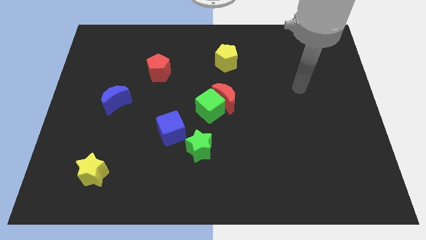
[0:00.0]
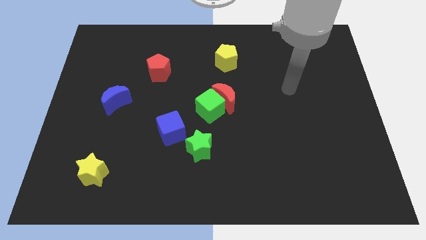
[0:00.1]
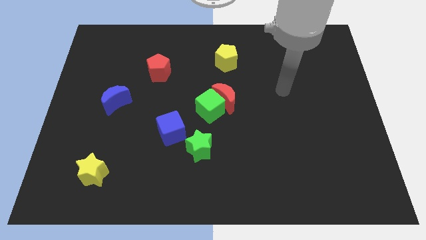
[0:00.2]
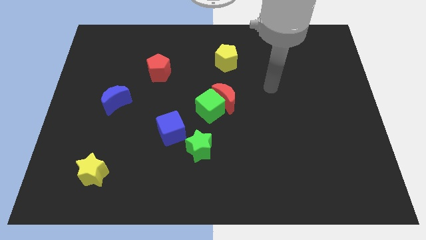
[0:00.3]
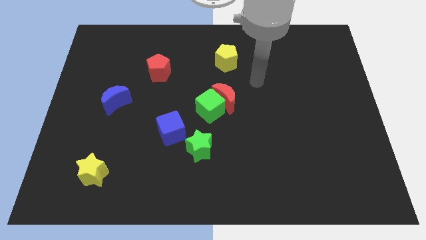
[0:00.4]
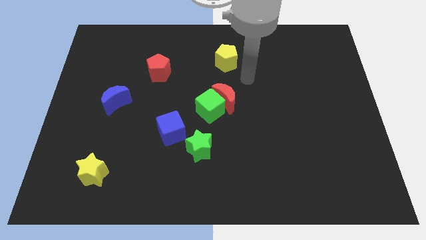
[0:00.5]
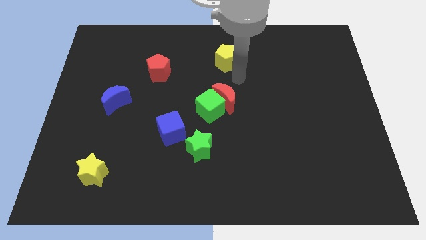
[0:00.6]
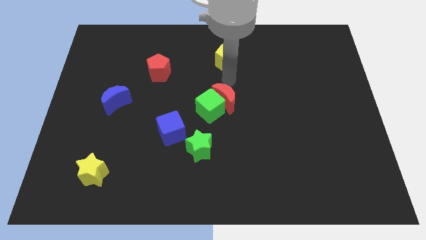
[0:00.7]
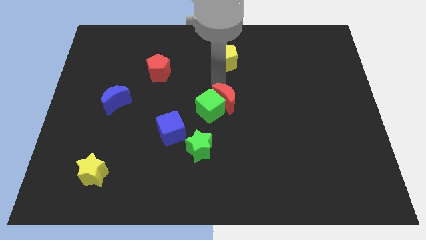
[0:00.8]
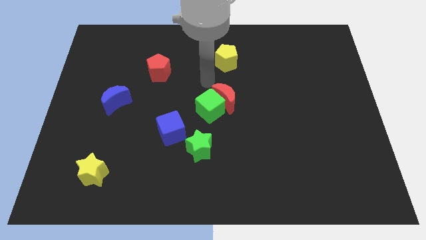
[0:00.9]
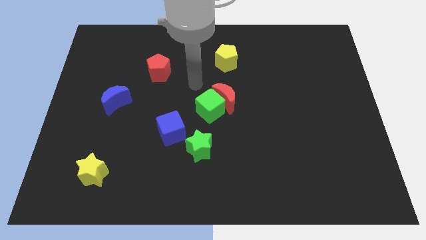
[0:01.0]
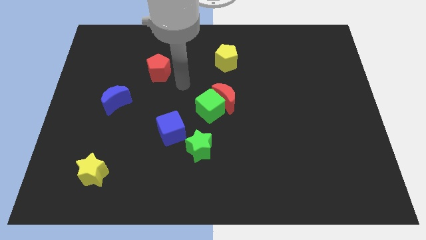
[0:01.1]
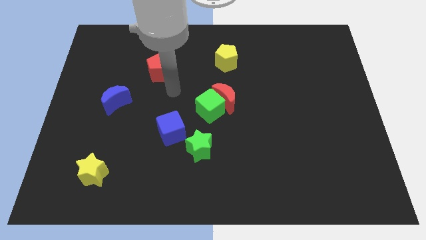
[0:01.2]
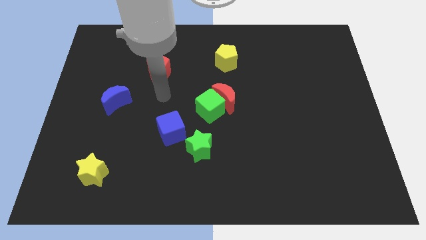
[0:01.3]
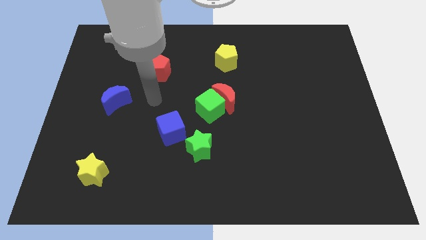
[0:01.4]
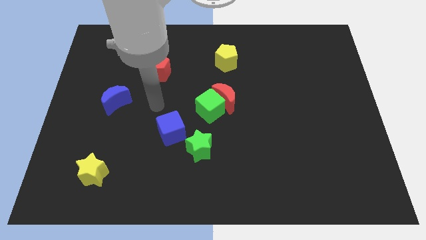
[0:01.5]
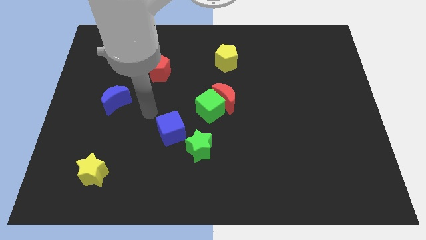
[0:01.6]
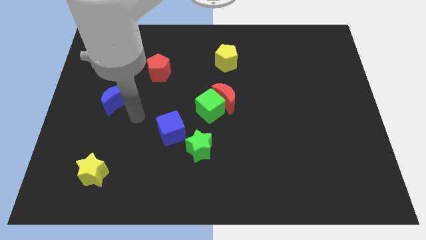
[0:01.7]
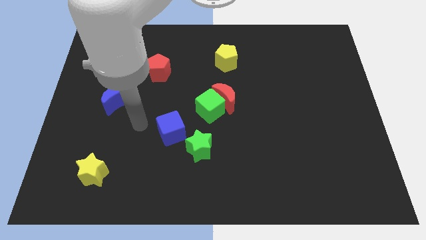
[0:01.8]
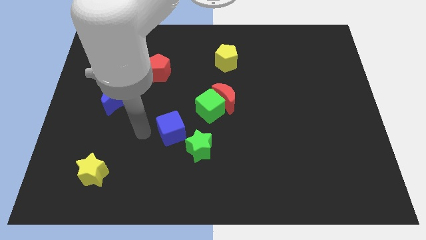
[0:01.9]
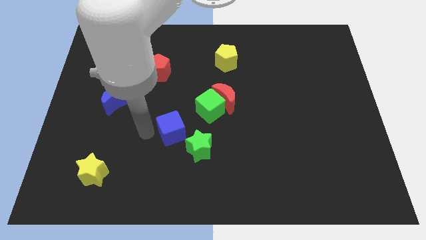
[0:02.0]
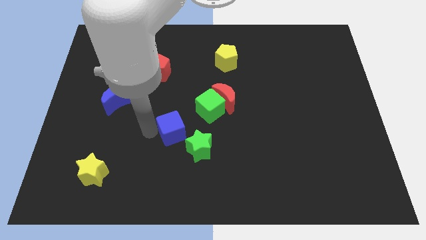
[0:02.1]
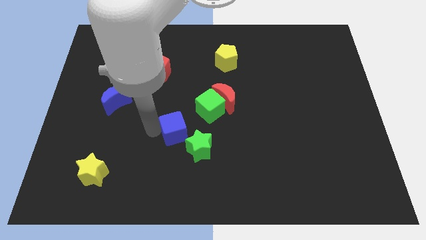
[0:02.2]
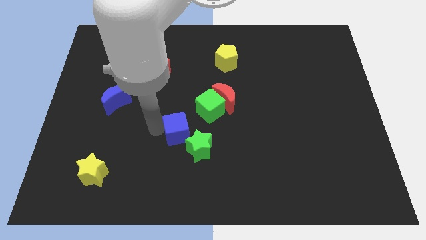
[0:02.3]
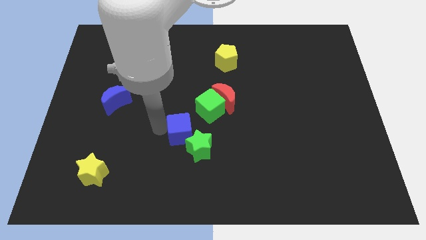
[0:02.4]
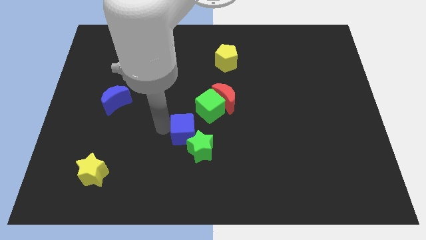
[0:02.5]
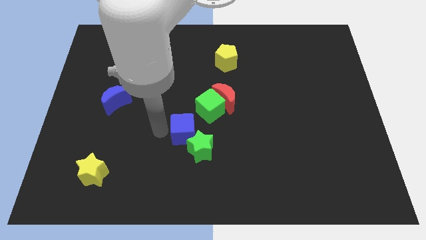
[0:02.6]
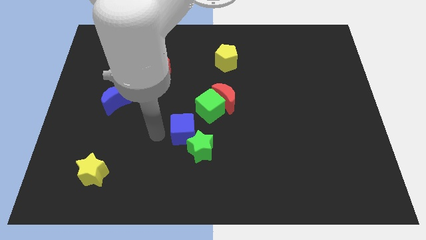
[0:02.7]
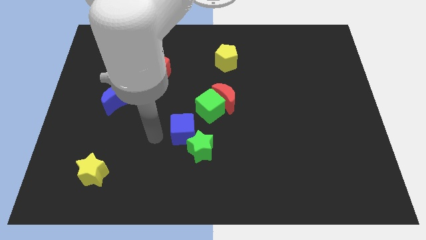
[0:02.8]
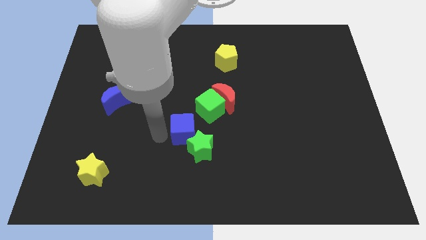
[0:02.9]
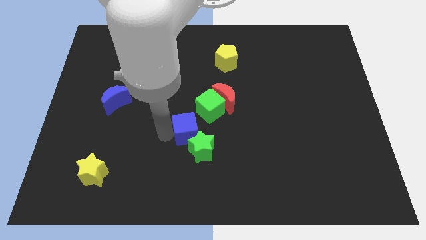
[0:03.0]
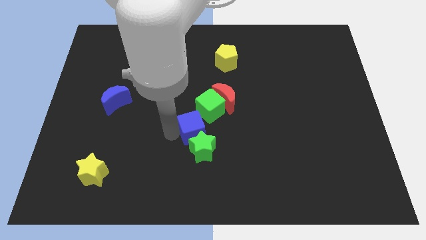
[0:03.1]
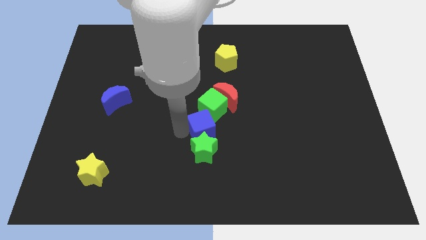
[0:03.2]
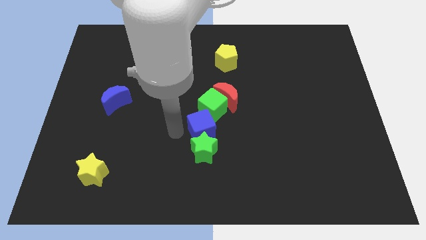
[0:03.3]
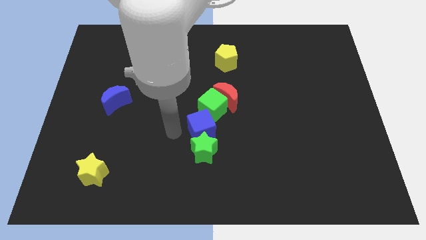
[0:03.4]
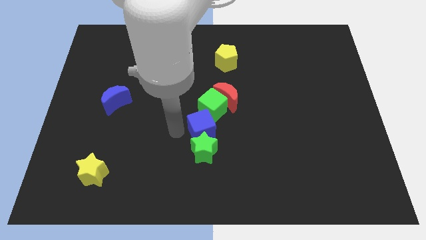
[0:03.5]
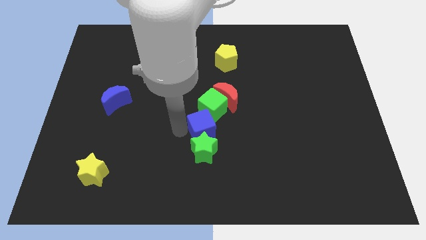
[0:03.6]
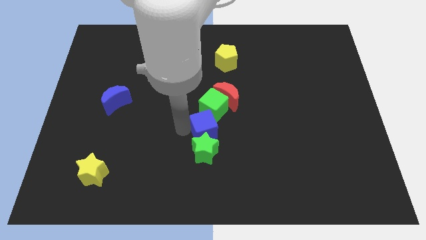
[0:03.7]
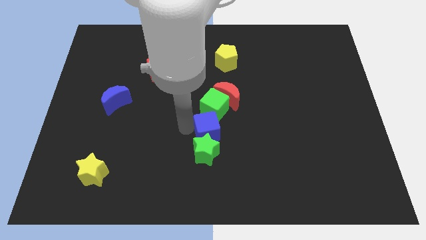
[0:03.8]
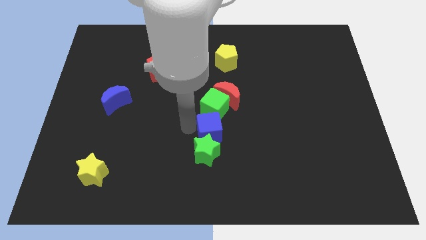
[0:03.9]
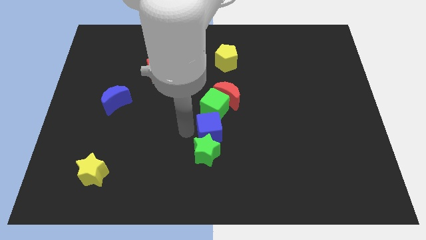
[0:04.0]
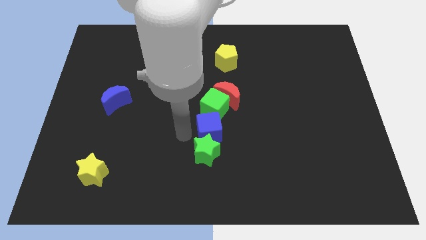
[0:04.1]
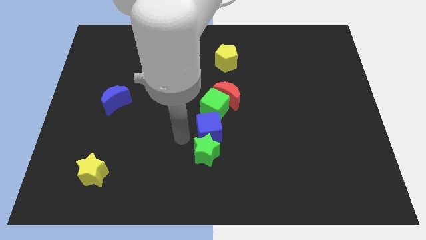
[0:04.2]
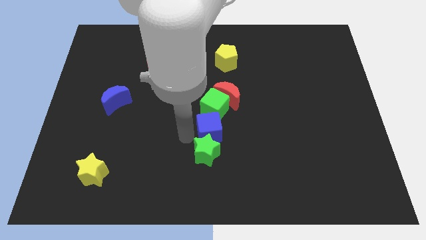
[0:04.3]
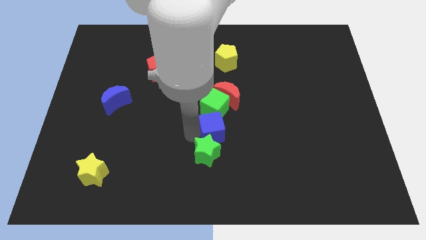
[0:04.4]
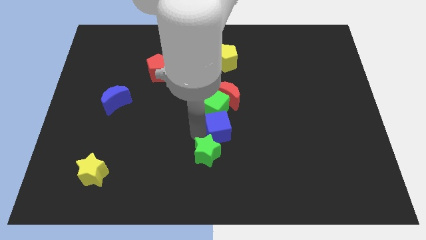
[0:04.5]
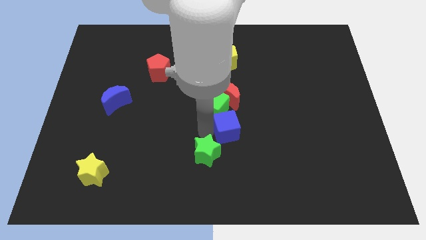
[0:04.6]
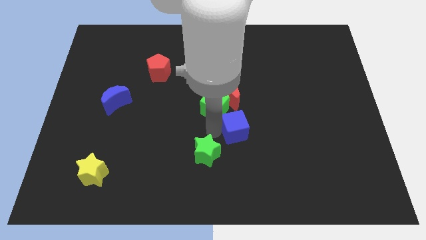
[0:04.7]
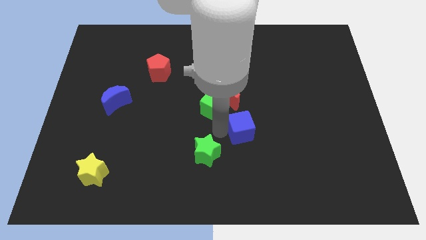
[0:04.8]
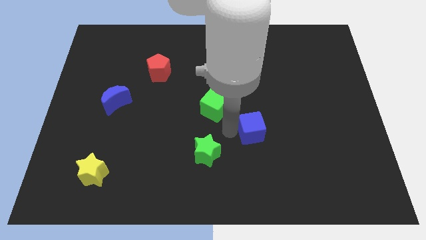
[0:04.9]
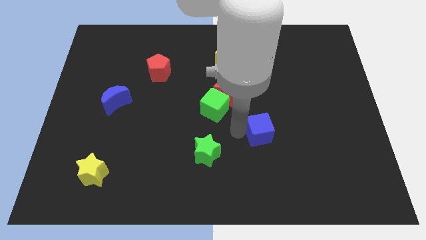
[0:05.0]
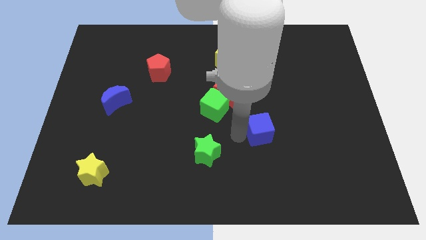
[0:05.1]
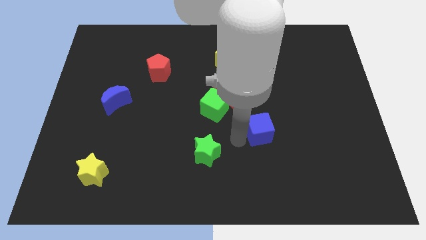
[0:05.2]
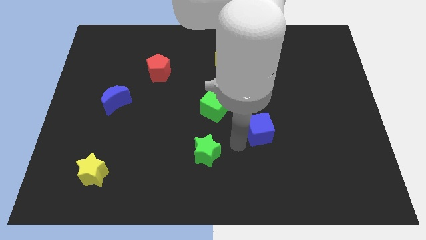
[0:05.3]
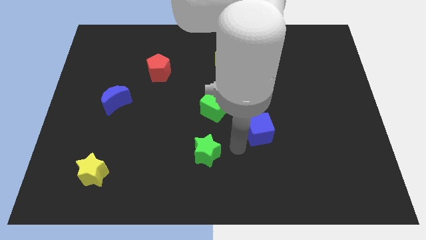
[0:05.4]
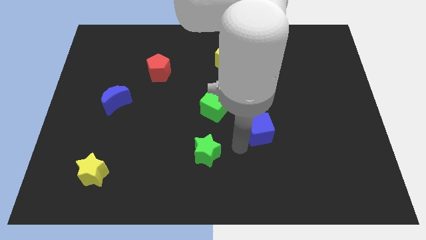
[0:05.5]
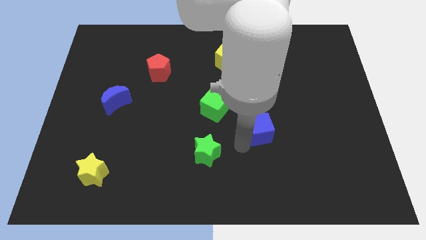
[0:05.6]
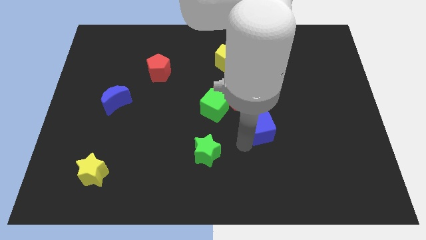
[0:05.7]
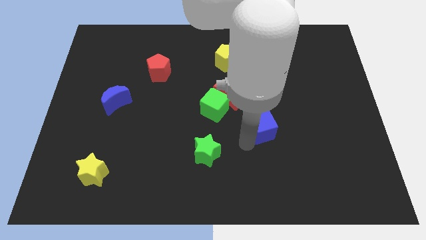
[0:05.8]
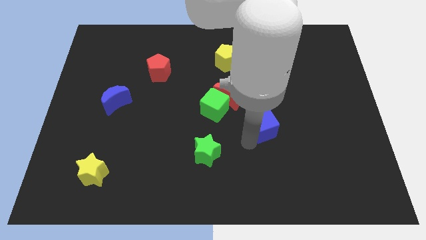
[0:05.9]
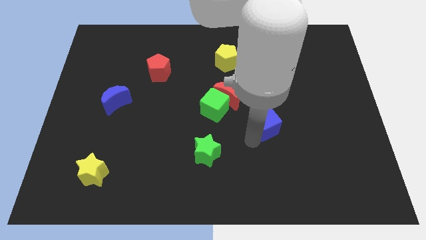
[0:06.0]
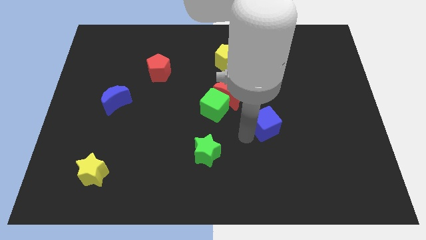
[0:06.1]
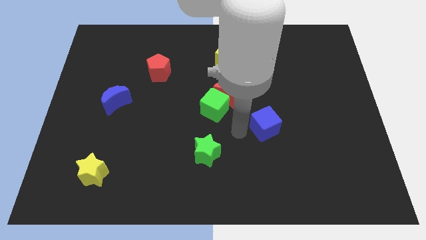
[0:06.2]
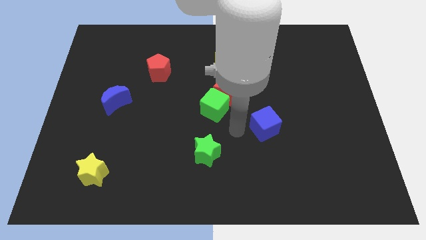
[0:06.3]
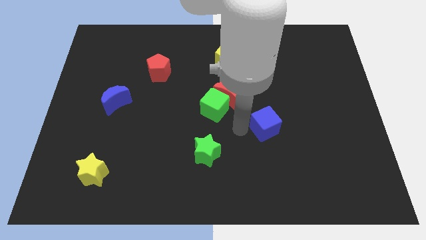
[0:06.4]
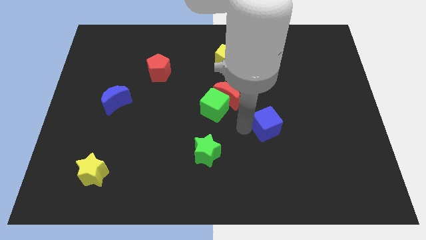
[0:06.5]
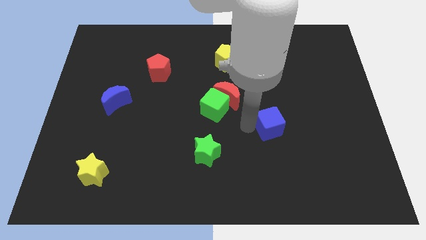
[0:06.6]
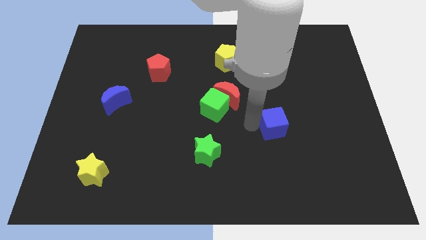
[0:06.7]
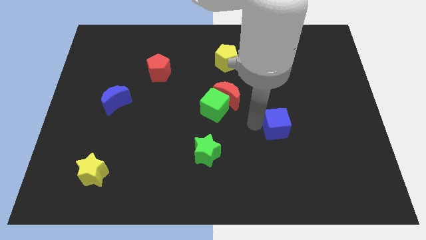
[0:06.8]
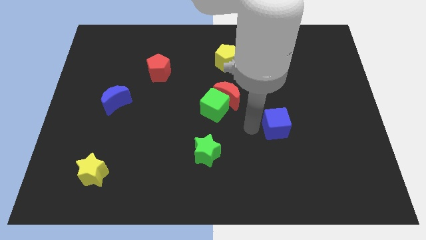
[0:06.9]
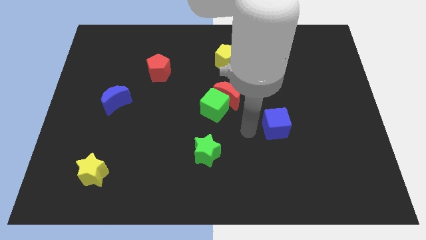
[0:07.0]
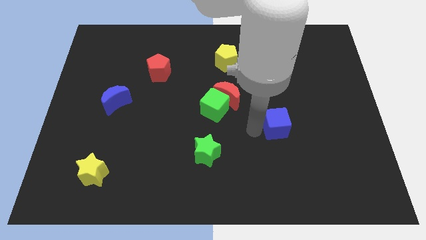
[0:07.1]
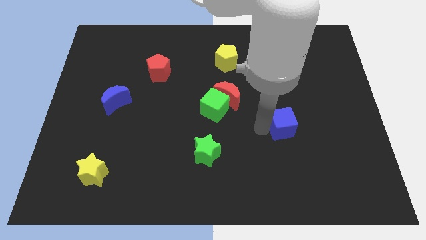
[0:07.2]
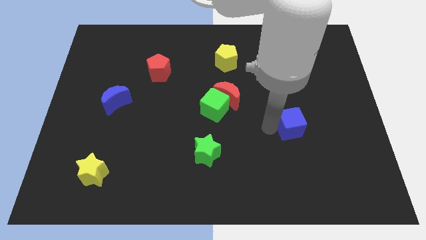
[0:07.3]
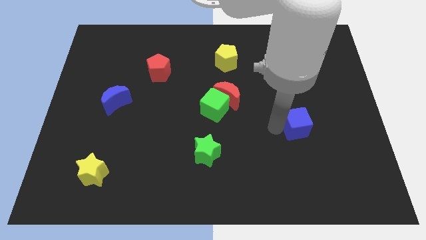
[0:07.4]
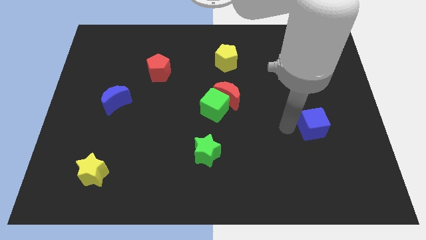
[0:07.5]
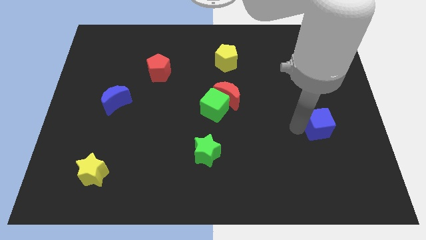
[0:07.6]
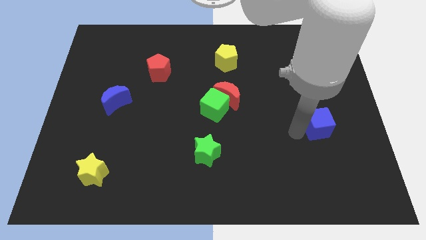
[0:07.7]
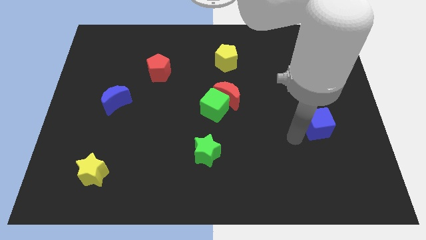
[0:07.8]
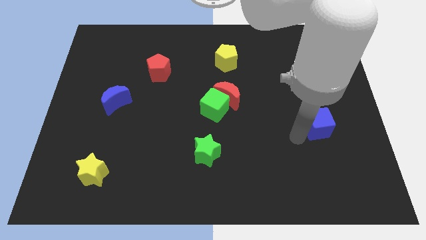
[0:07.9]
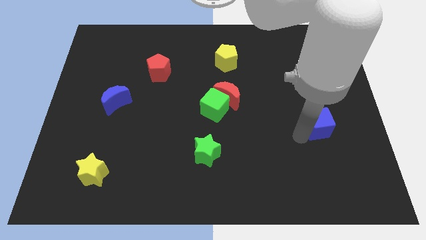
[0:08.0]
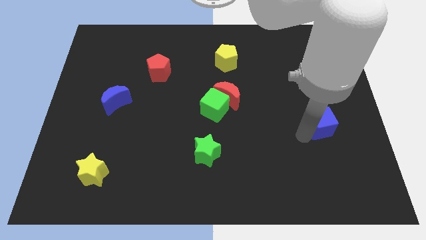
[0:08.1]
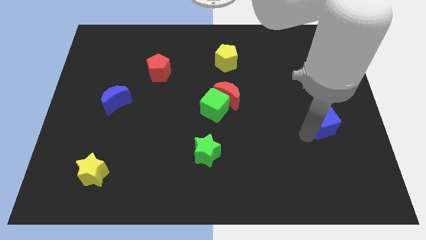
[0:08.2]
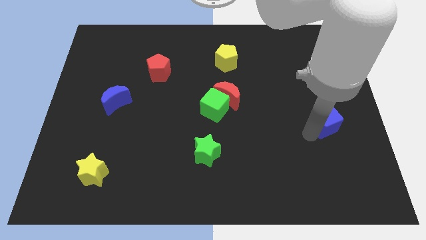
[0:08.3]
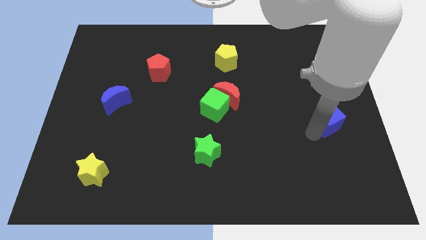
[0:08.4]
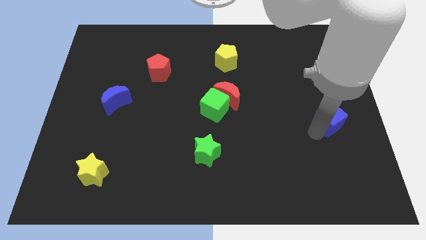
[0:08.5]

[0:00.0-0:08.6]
slide the blue cube to the center right
